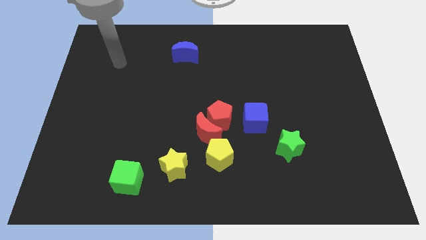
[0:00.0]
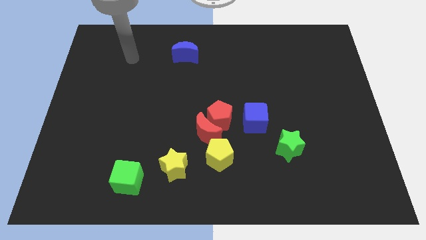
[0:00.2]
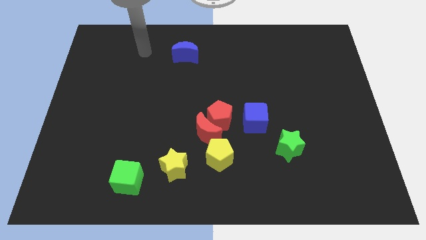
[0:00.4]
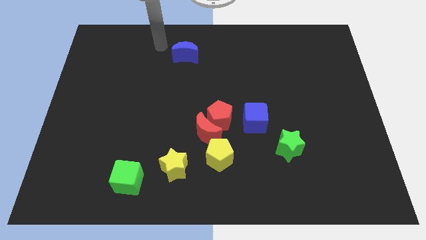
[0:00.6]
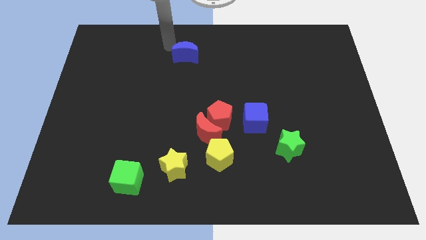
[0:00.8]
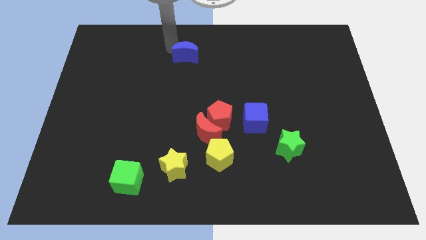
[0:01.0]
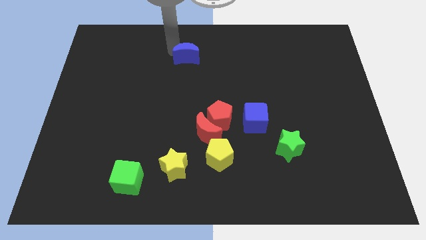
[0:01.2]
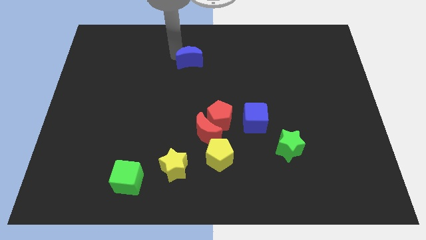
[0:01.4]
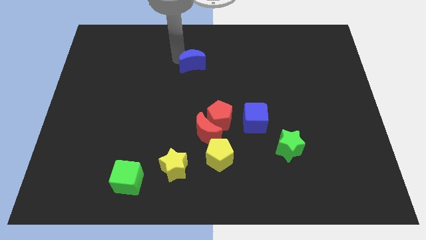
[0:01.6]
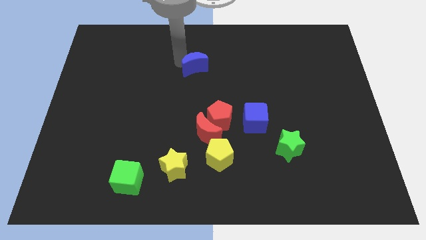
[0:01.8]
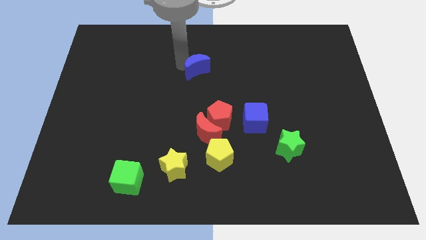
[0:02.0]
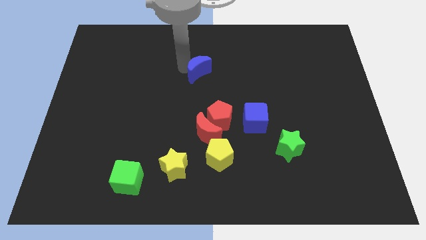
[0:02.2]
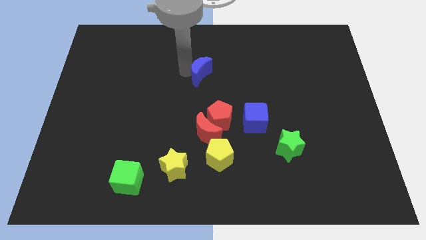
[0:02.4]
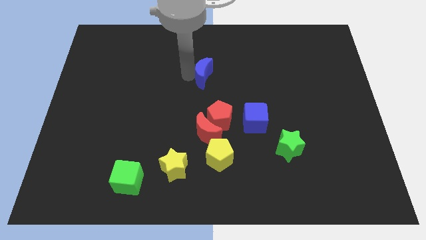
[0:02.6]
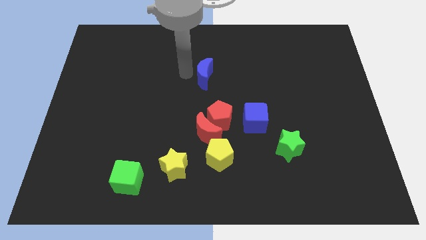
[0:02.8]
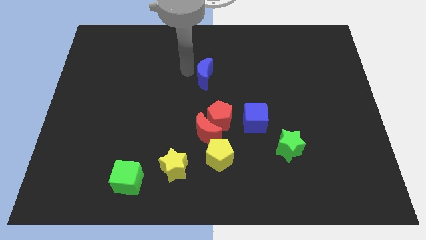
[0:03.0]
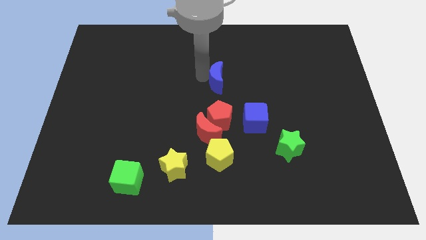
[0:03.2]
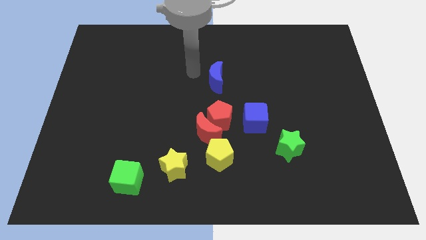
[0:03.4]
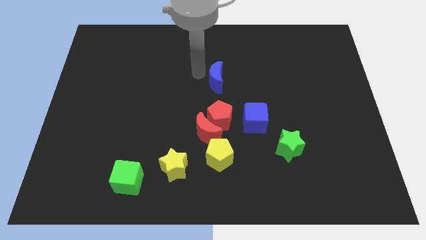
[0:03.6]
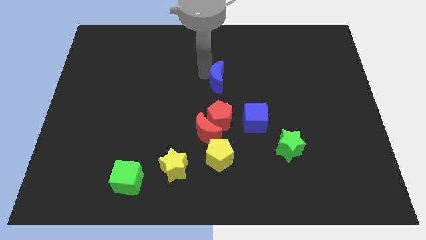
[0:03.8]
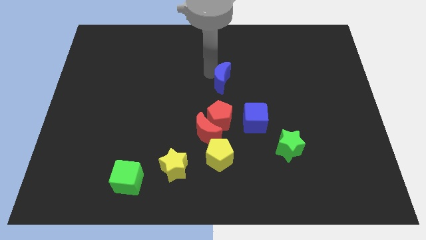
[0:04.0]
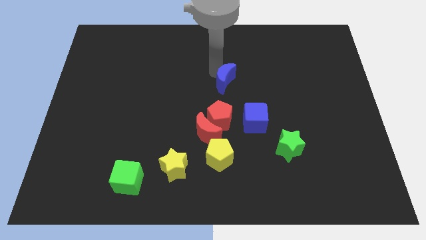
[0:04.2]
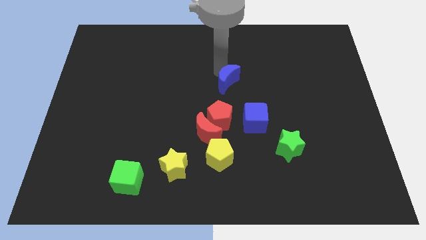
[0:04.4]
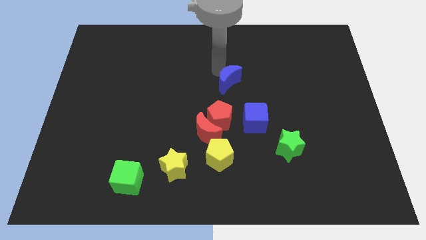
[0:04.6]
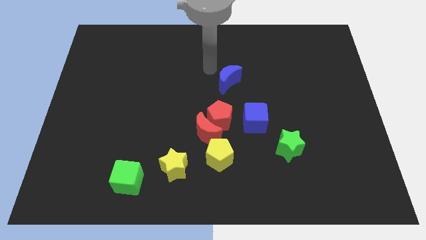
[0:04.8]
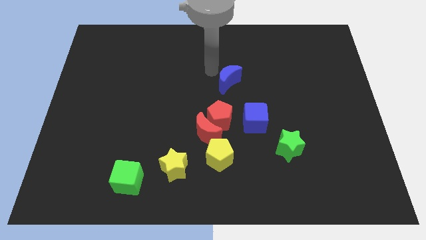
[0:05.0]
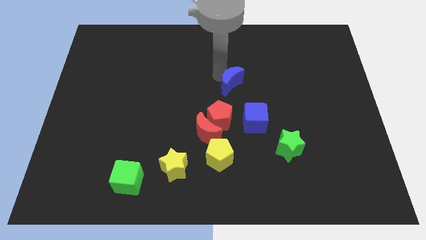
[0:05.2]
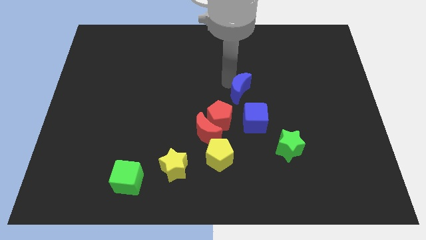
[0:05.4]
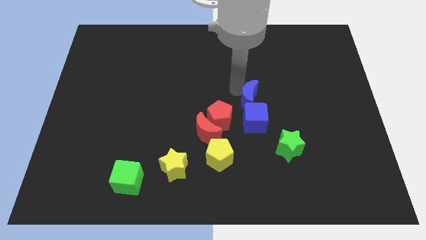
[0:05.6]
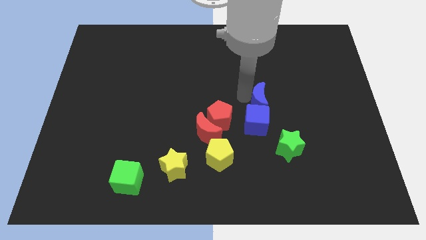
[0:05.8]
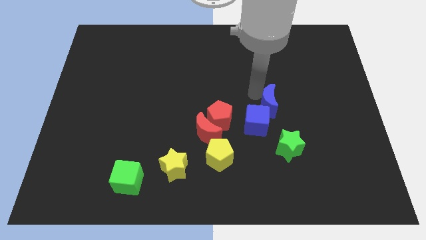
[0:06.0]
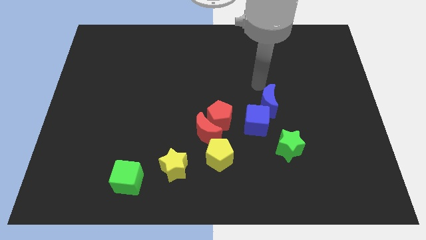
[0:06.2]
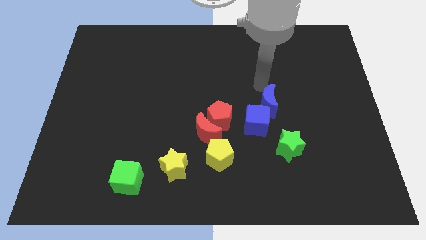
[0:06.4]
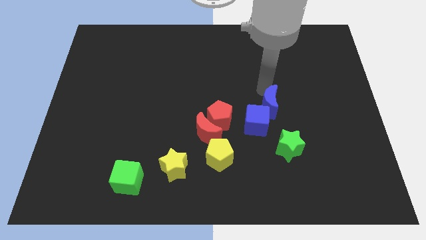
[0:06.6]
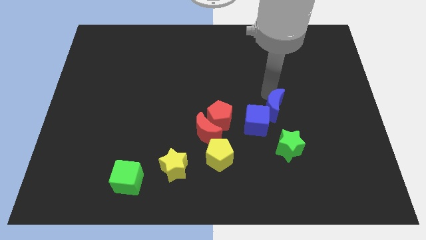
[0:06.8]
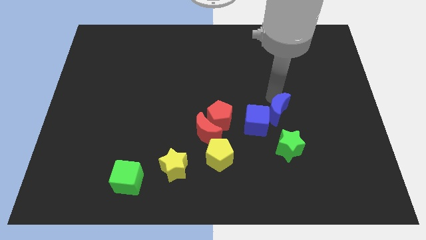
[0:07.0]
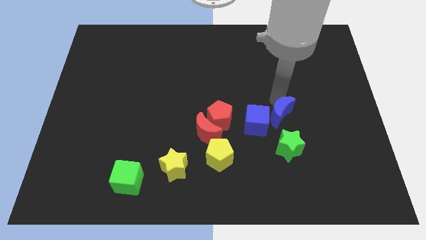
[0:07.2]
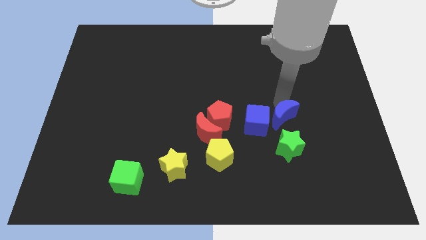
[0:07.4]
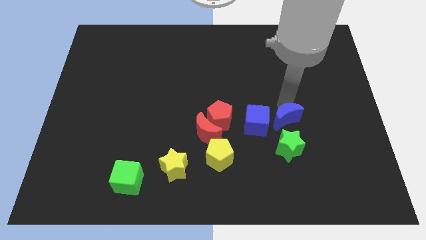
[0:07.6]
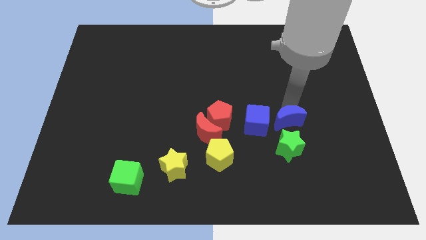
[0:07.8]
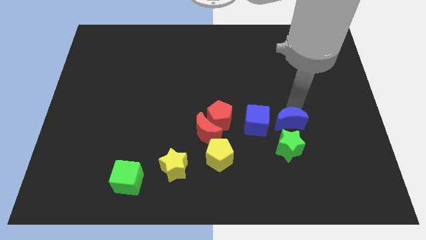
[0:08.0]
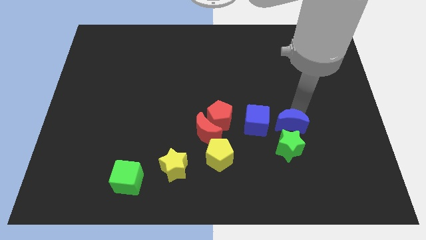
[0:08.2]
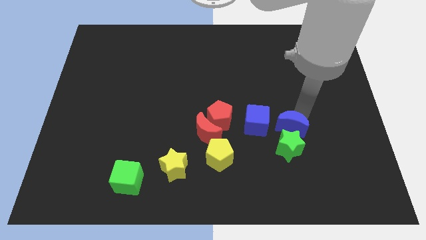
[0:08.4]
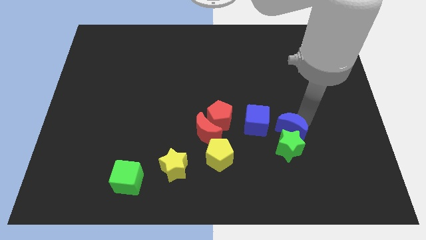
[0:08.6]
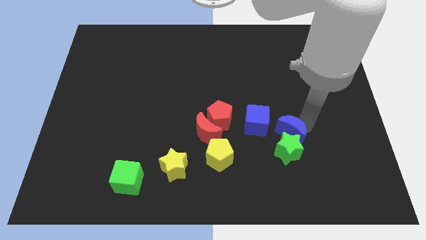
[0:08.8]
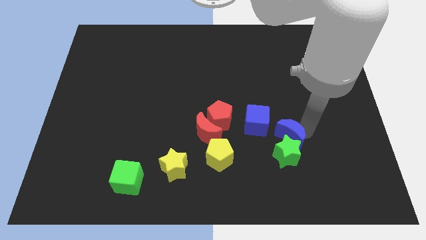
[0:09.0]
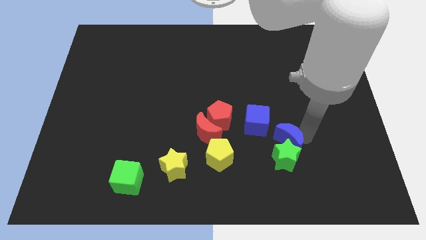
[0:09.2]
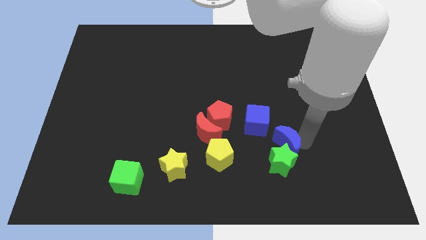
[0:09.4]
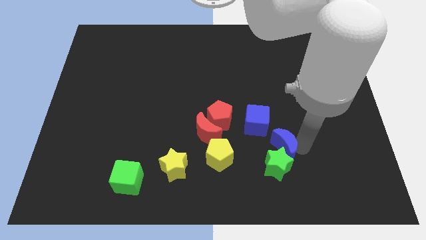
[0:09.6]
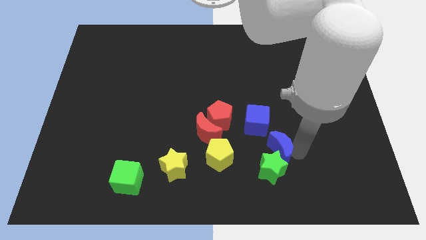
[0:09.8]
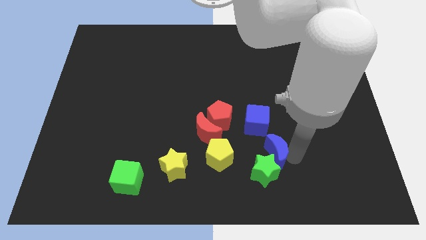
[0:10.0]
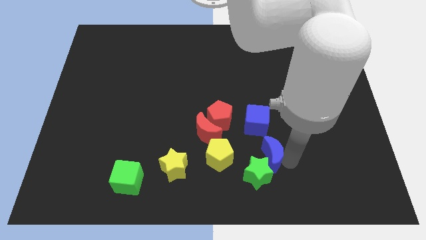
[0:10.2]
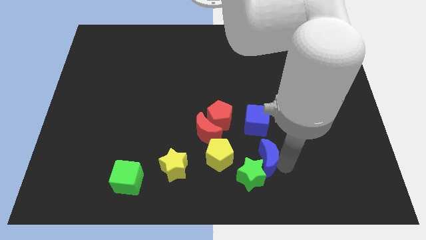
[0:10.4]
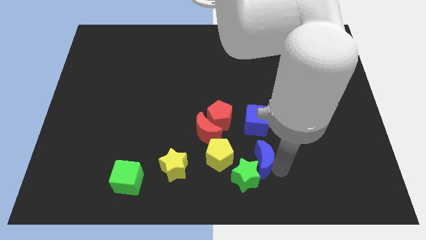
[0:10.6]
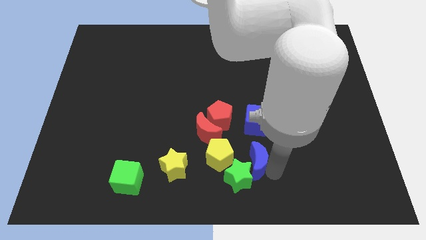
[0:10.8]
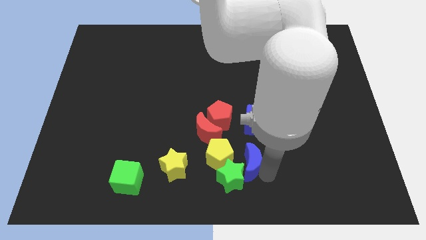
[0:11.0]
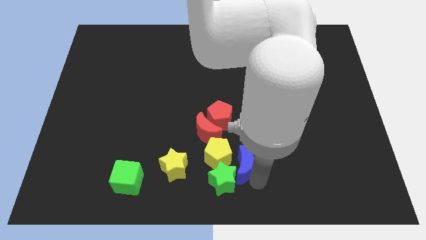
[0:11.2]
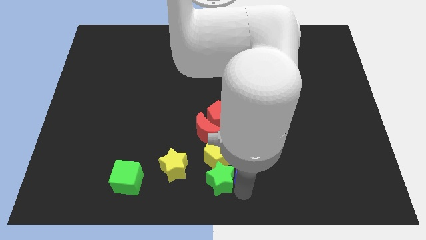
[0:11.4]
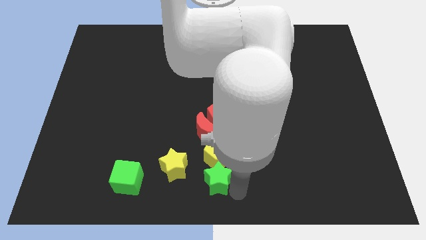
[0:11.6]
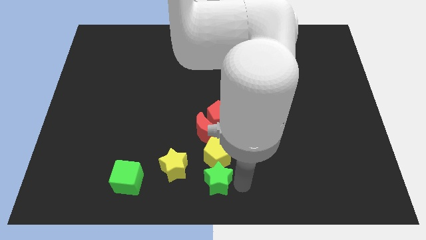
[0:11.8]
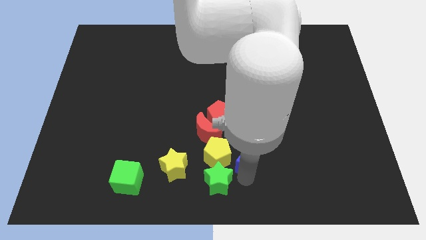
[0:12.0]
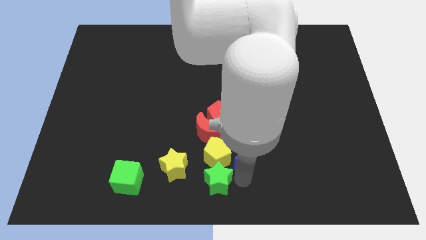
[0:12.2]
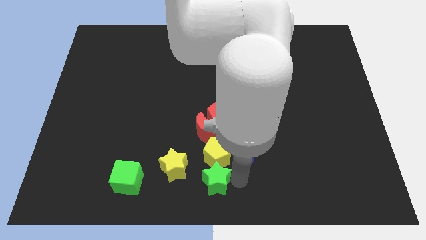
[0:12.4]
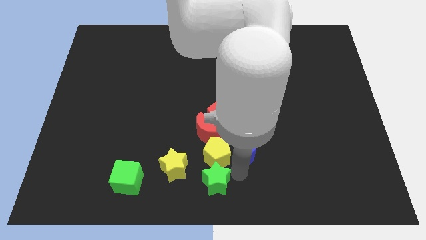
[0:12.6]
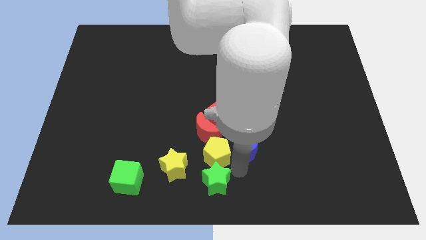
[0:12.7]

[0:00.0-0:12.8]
slide the blue moon right of the red moon

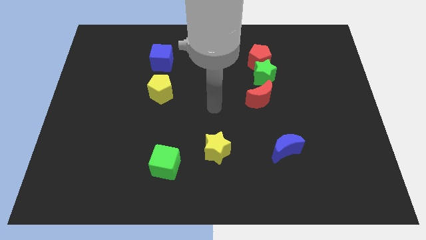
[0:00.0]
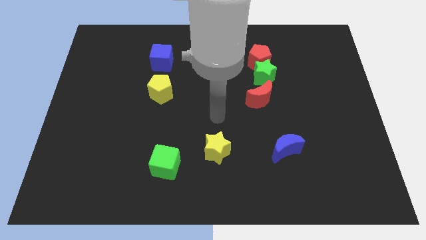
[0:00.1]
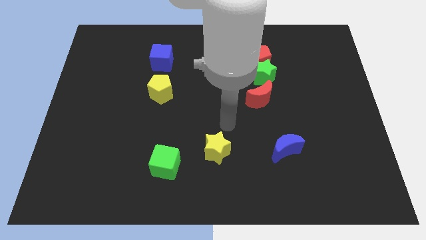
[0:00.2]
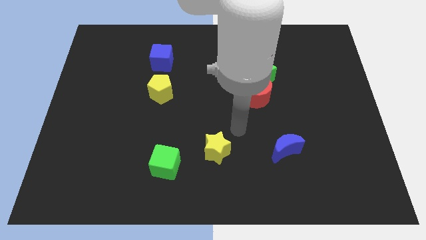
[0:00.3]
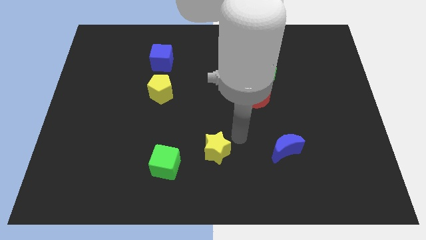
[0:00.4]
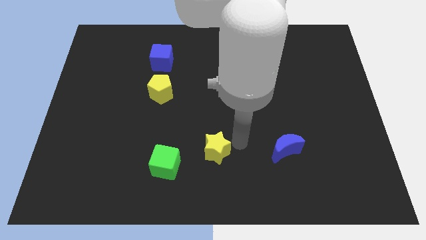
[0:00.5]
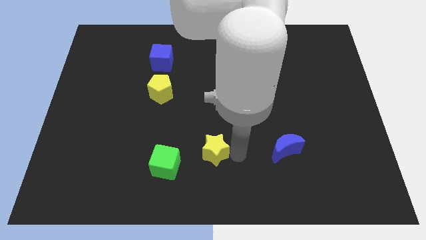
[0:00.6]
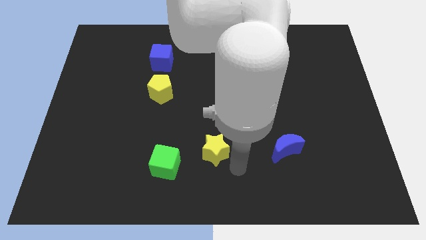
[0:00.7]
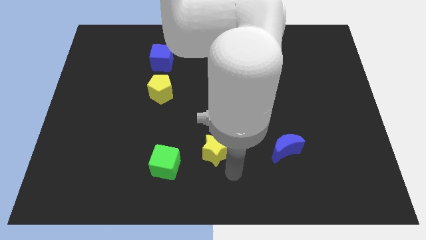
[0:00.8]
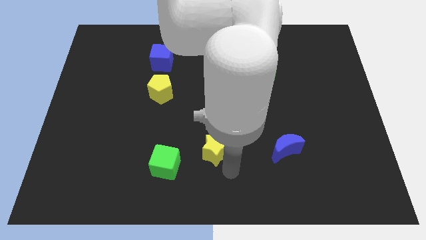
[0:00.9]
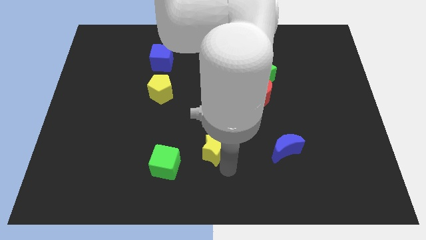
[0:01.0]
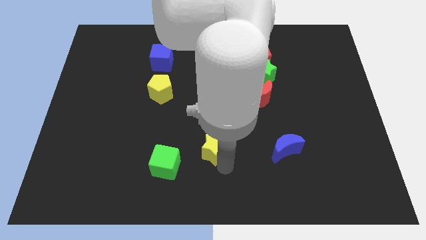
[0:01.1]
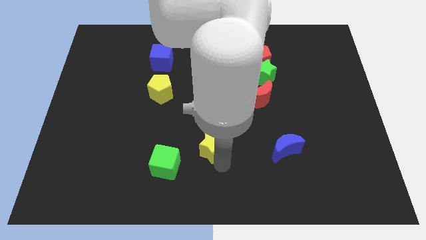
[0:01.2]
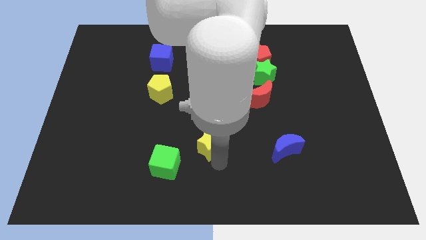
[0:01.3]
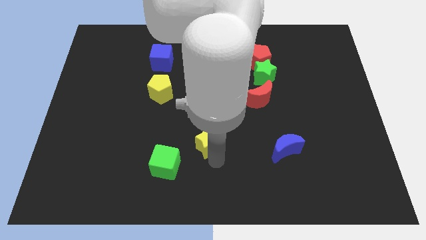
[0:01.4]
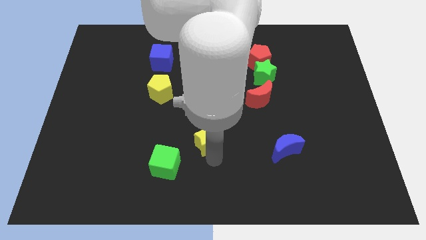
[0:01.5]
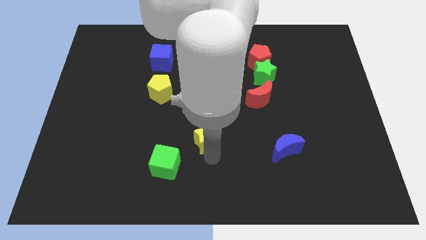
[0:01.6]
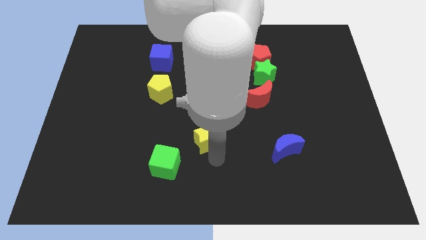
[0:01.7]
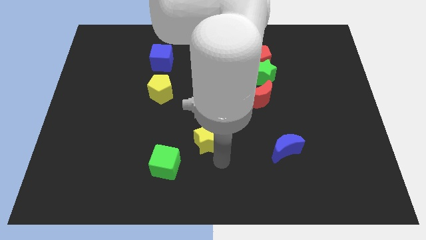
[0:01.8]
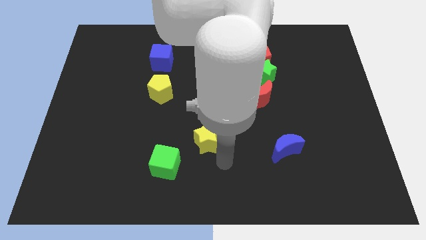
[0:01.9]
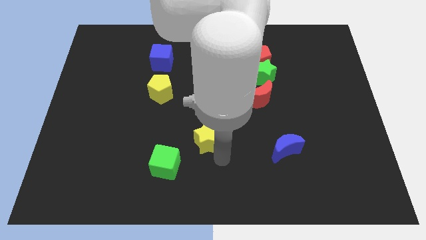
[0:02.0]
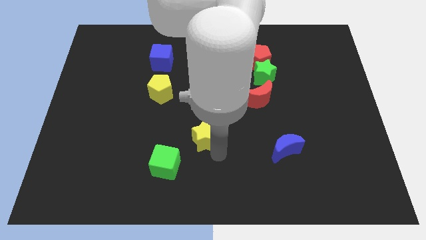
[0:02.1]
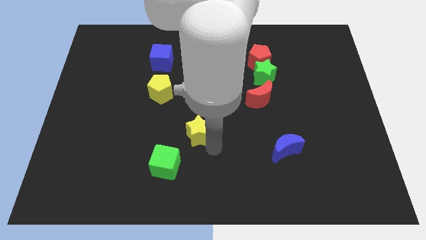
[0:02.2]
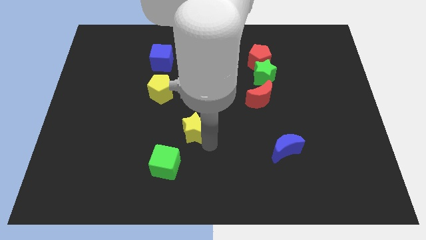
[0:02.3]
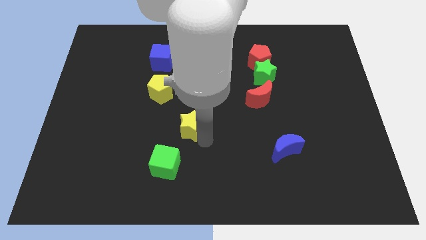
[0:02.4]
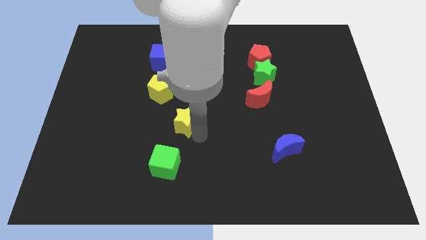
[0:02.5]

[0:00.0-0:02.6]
push the yellow star to the bottom right side of the yellow pentagon
